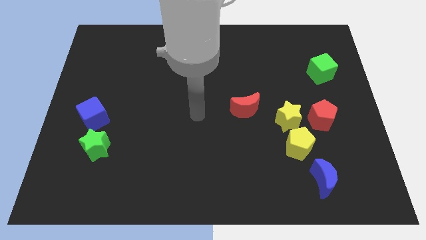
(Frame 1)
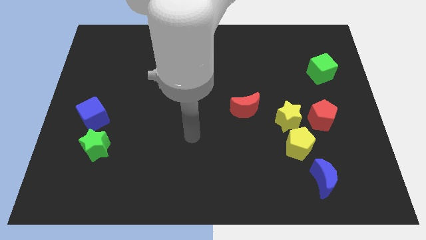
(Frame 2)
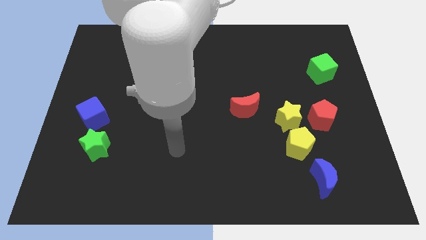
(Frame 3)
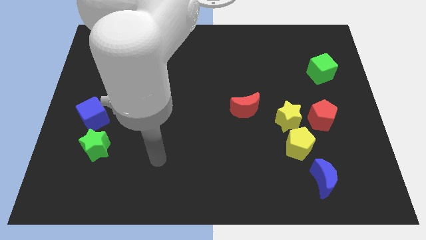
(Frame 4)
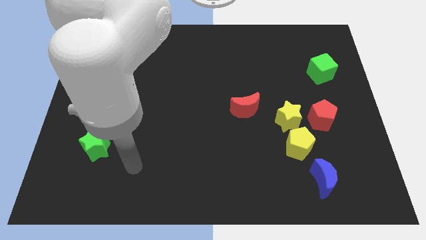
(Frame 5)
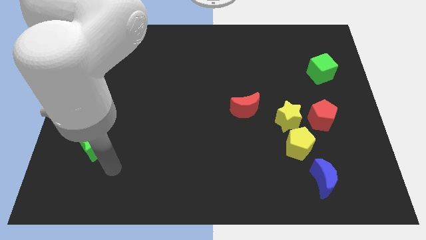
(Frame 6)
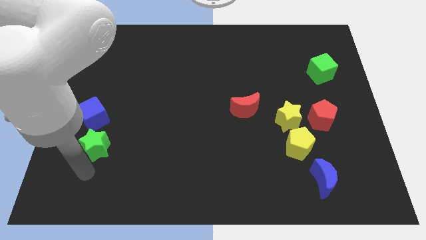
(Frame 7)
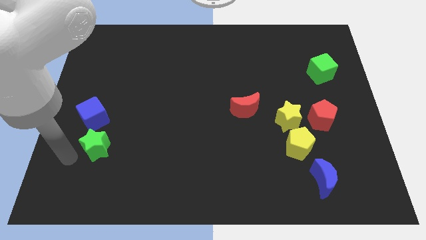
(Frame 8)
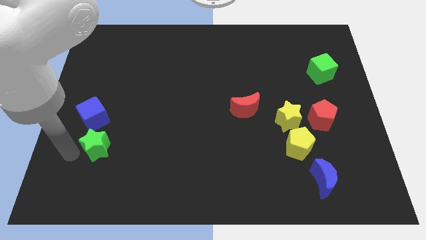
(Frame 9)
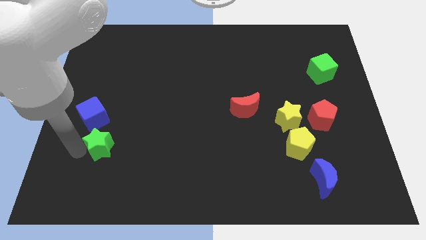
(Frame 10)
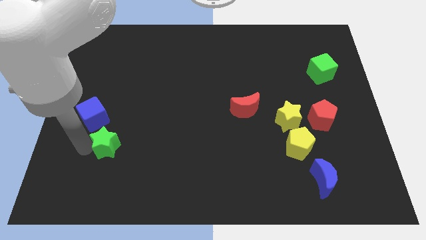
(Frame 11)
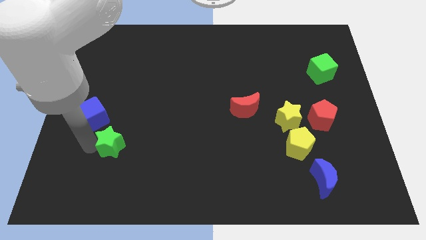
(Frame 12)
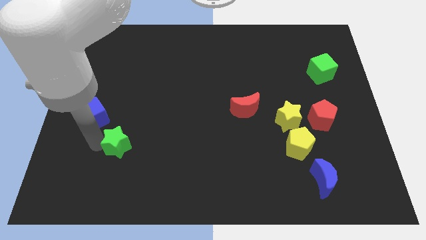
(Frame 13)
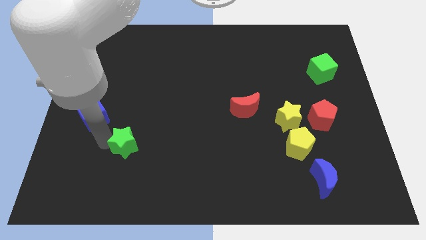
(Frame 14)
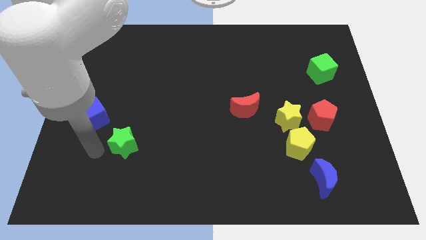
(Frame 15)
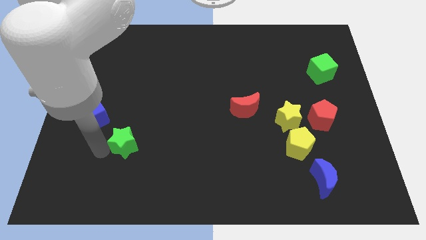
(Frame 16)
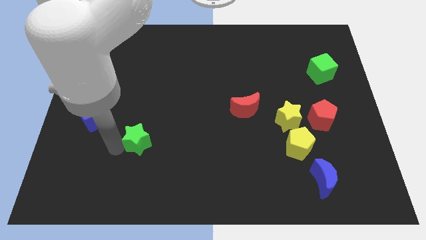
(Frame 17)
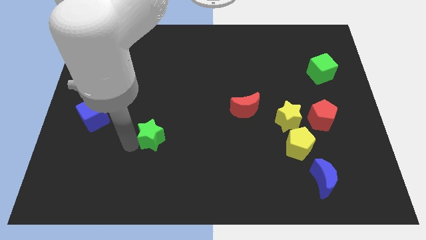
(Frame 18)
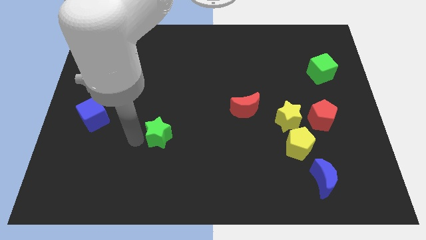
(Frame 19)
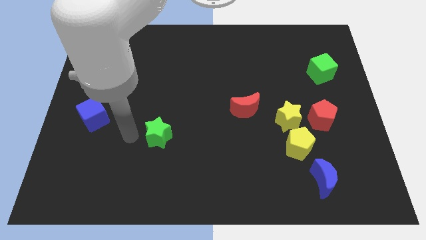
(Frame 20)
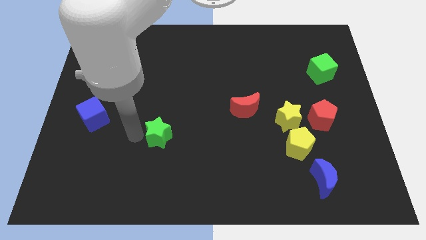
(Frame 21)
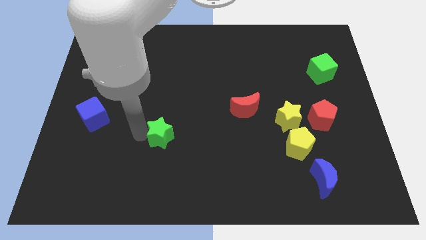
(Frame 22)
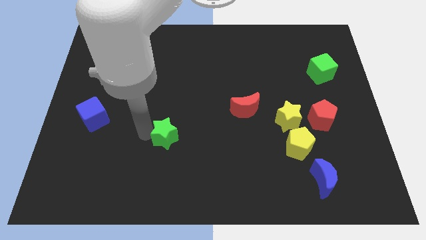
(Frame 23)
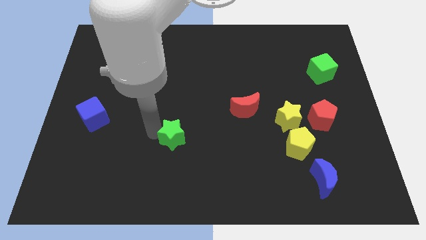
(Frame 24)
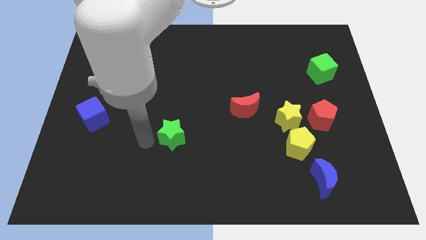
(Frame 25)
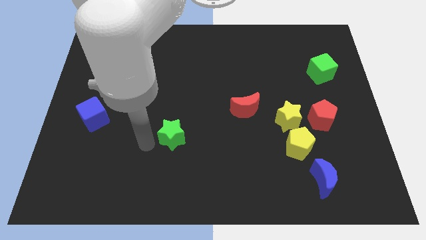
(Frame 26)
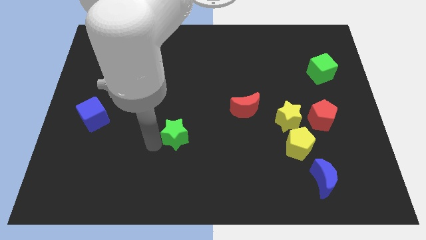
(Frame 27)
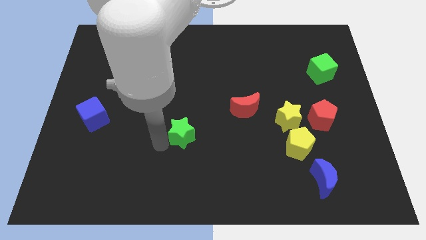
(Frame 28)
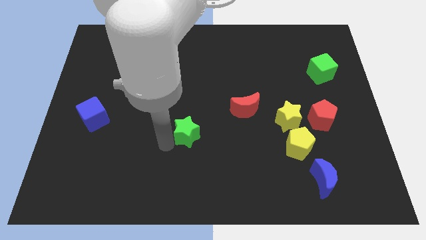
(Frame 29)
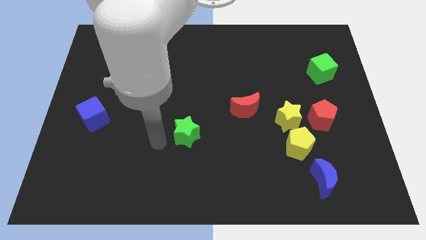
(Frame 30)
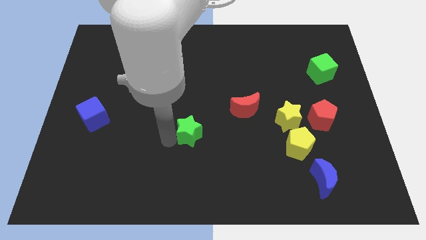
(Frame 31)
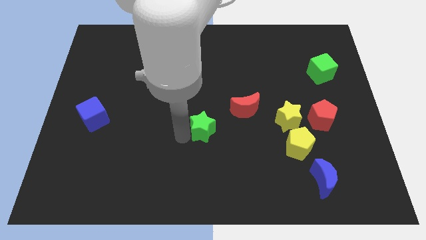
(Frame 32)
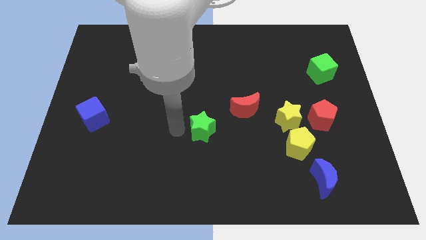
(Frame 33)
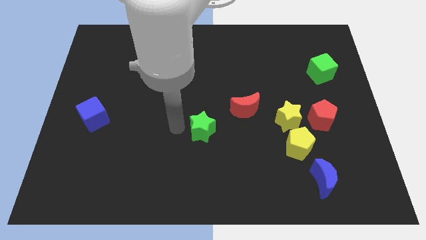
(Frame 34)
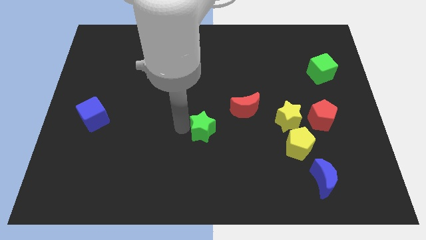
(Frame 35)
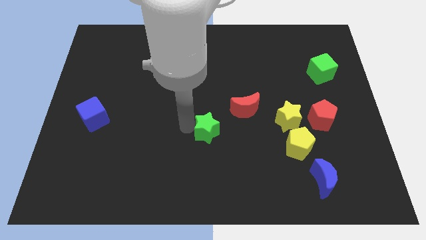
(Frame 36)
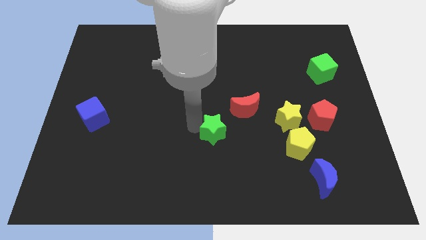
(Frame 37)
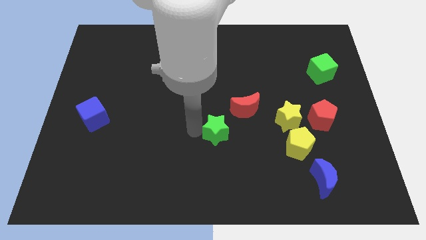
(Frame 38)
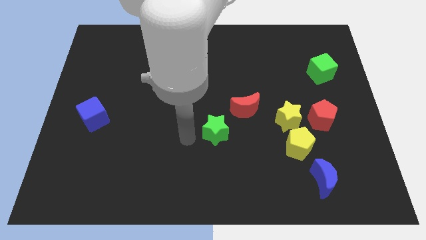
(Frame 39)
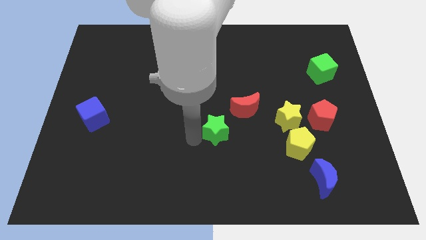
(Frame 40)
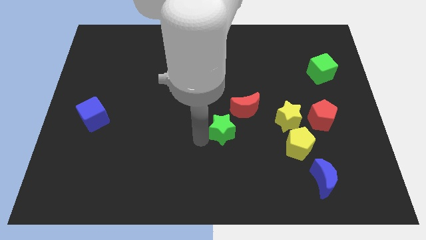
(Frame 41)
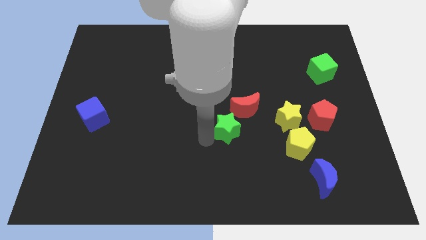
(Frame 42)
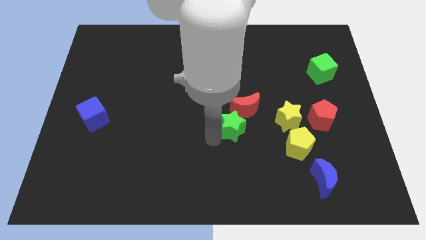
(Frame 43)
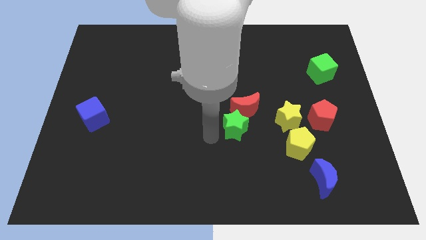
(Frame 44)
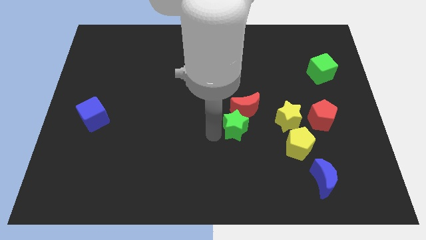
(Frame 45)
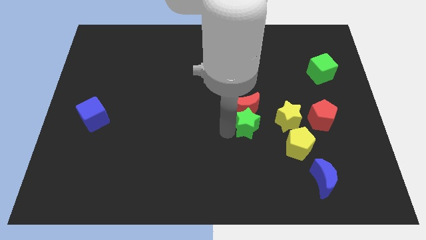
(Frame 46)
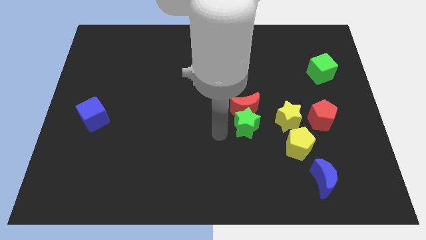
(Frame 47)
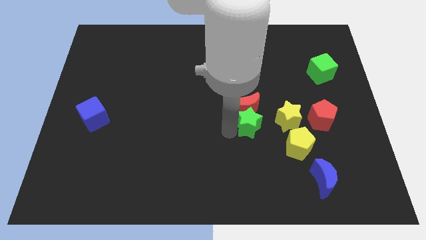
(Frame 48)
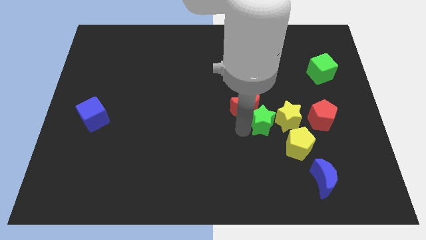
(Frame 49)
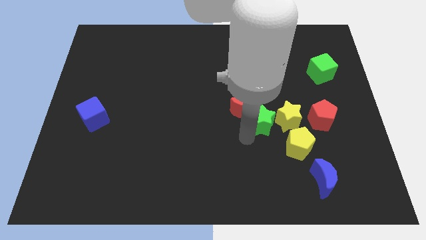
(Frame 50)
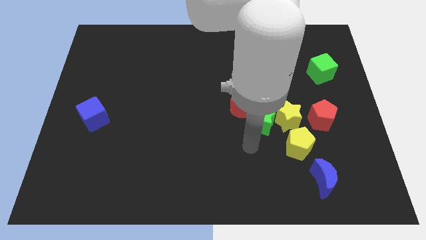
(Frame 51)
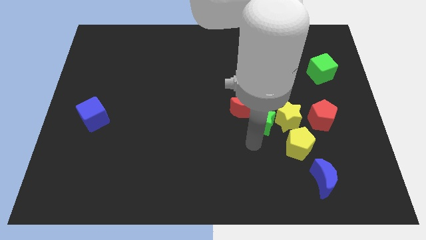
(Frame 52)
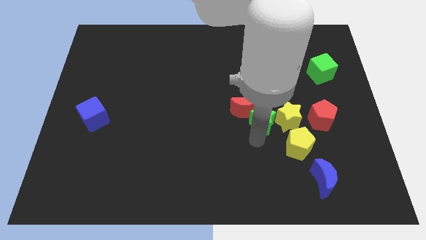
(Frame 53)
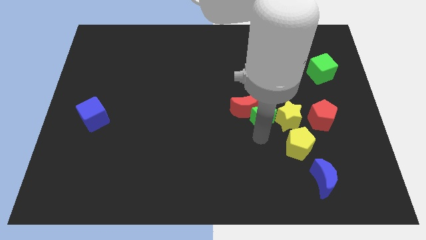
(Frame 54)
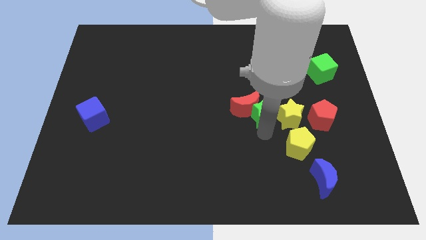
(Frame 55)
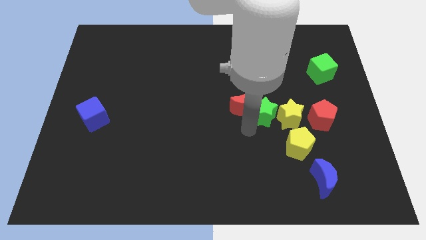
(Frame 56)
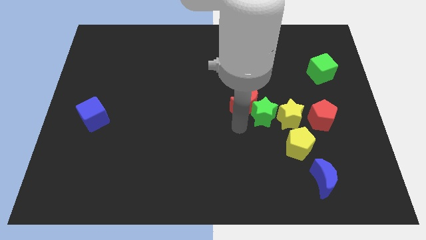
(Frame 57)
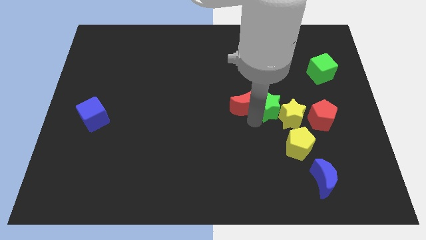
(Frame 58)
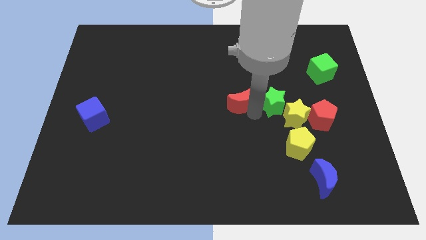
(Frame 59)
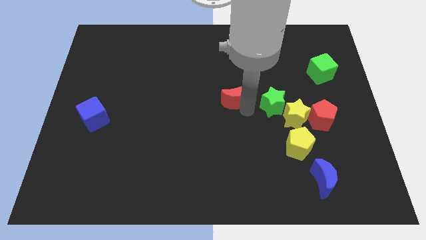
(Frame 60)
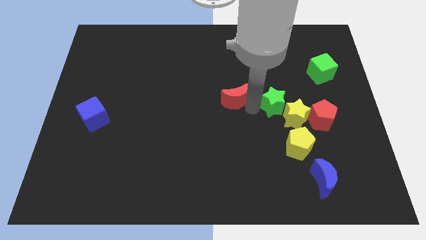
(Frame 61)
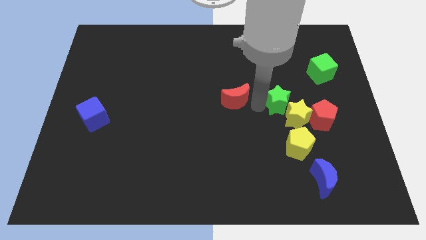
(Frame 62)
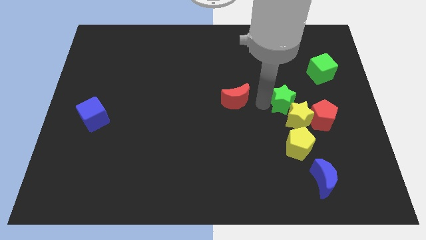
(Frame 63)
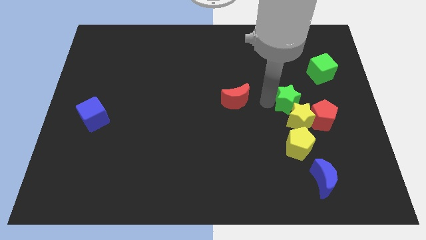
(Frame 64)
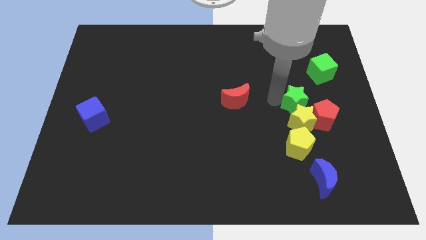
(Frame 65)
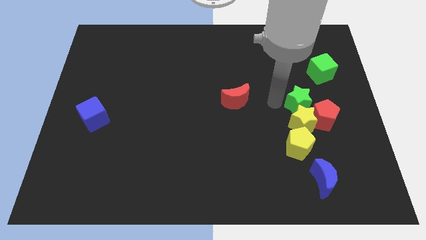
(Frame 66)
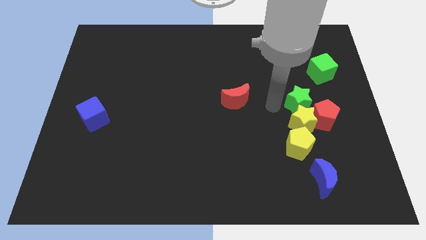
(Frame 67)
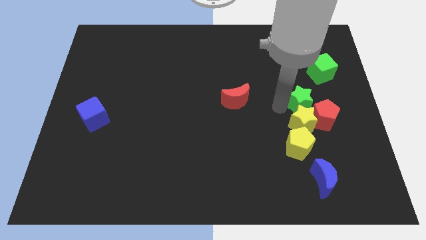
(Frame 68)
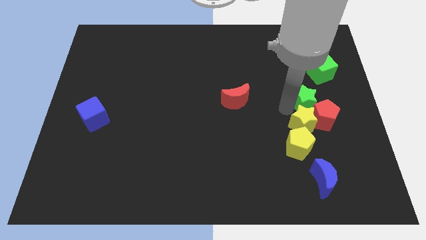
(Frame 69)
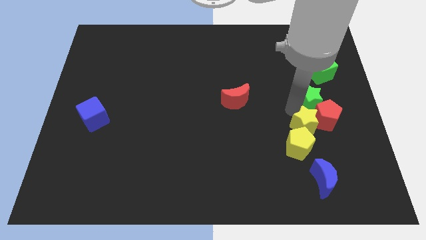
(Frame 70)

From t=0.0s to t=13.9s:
put the green star below the green cube

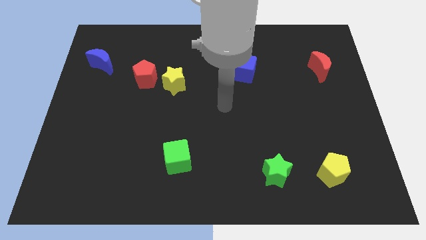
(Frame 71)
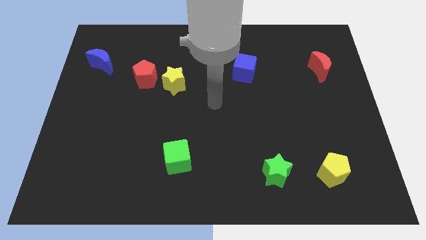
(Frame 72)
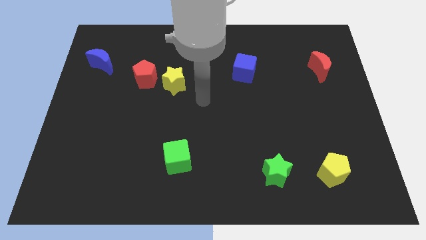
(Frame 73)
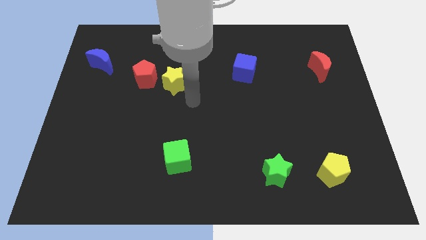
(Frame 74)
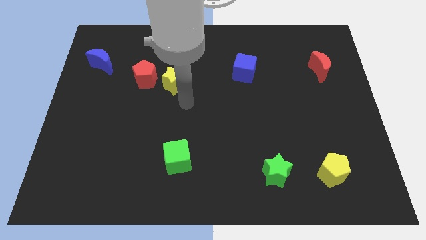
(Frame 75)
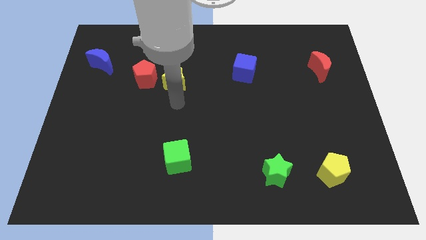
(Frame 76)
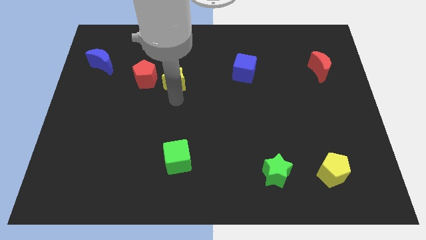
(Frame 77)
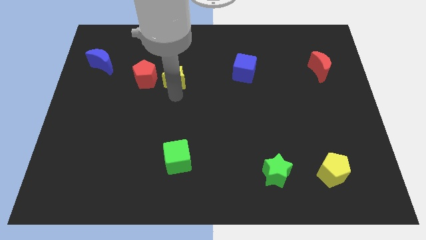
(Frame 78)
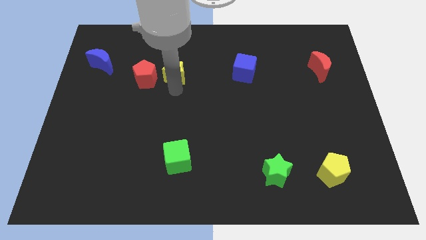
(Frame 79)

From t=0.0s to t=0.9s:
put the yellow star diagonally up and to the right of the red pentagon
